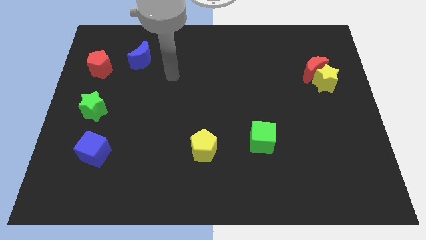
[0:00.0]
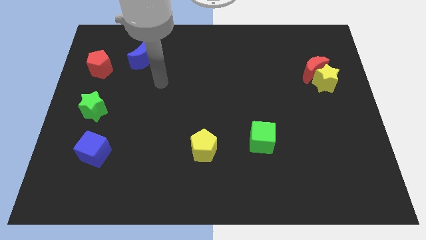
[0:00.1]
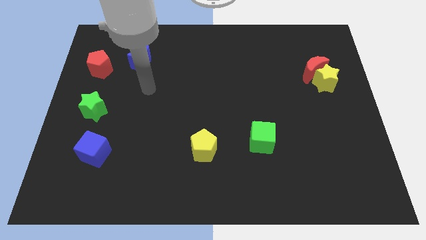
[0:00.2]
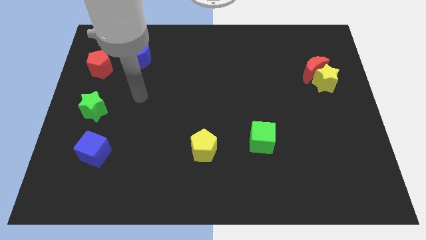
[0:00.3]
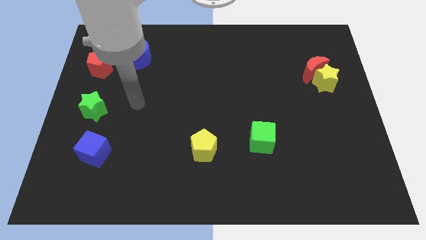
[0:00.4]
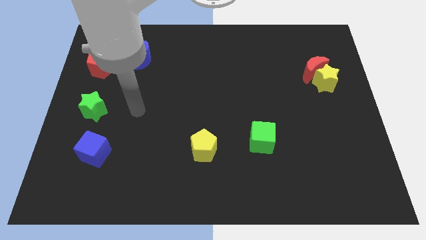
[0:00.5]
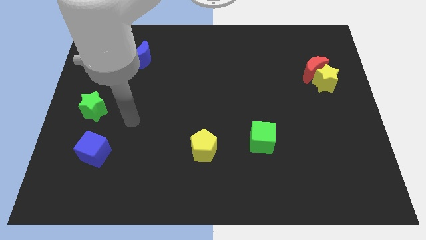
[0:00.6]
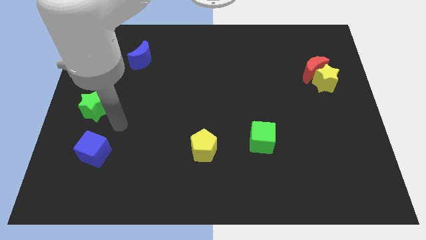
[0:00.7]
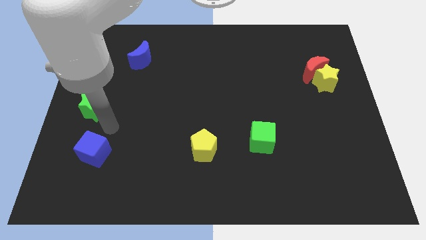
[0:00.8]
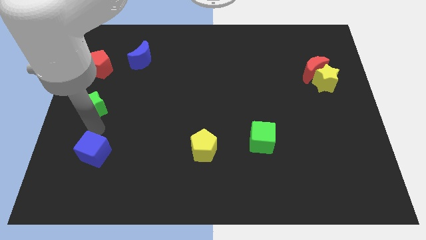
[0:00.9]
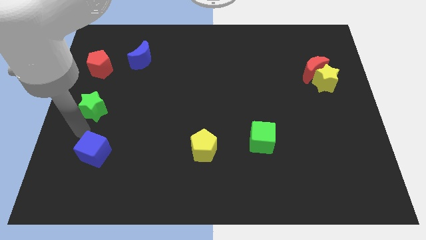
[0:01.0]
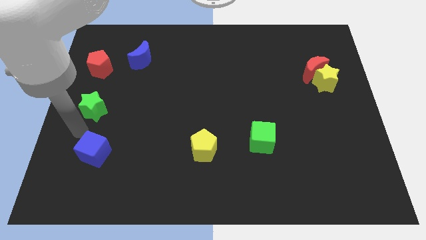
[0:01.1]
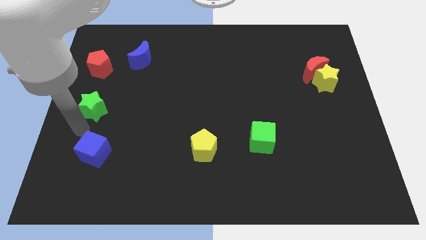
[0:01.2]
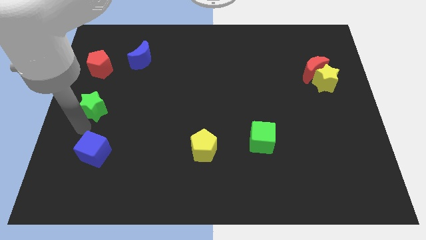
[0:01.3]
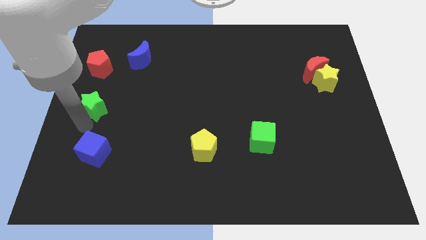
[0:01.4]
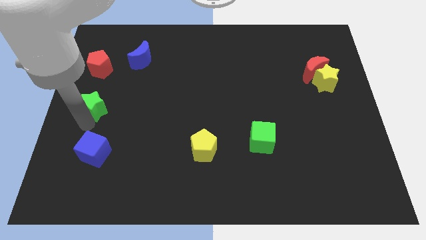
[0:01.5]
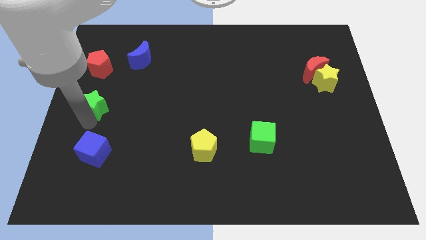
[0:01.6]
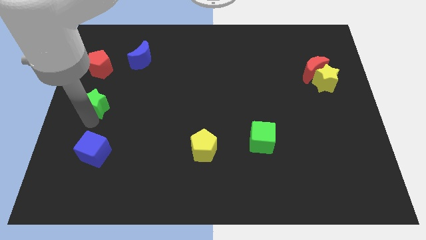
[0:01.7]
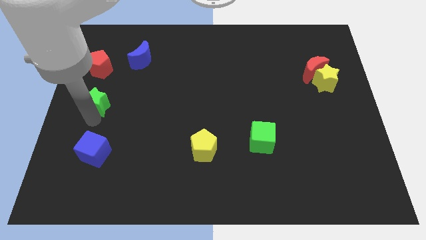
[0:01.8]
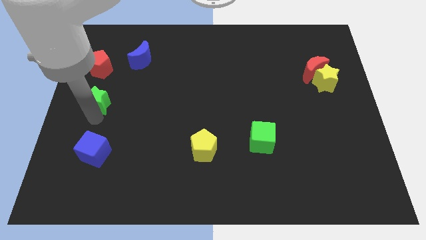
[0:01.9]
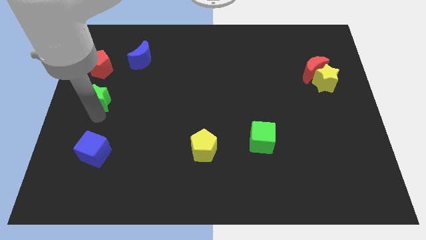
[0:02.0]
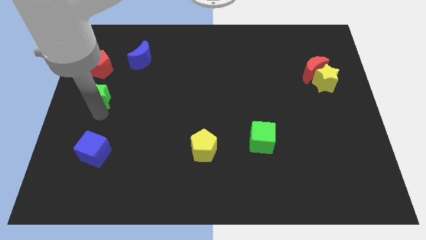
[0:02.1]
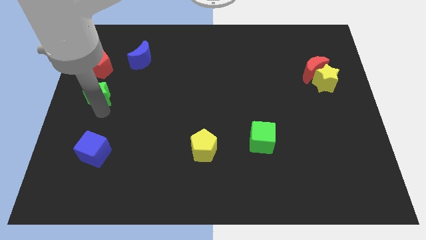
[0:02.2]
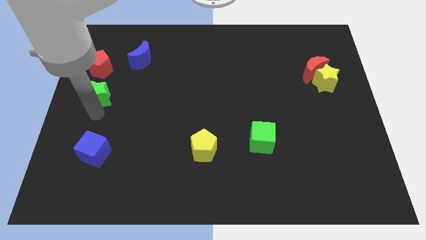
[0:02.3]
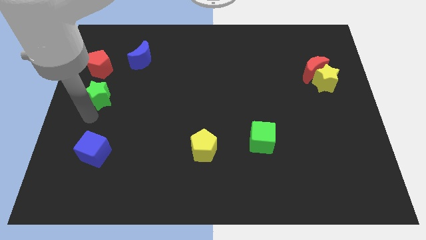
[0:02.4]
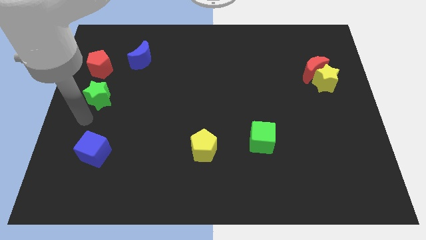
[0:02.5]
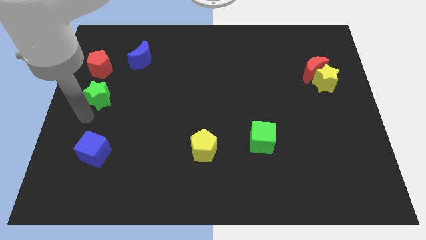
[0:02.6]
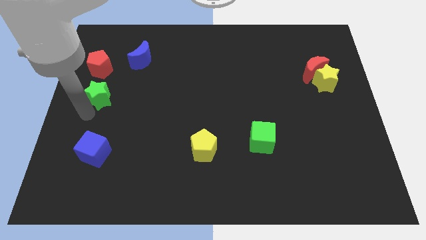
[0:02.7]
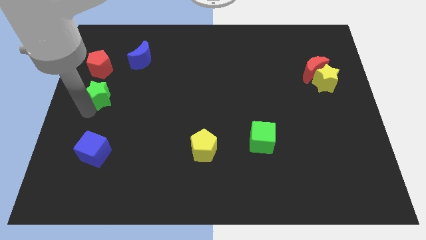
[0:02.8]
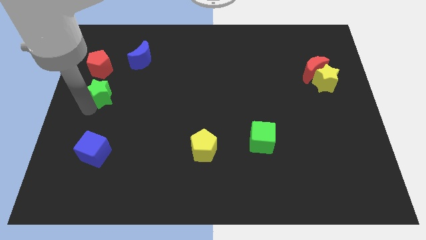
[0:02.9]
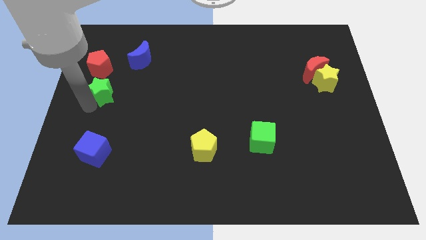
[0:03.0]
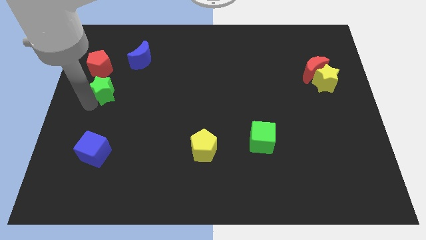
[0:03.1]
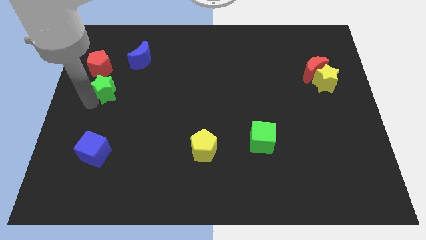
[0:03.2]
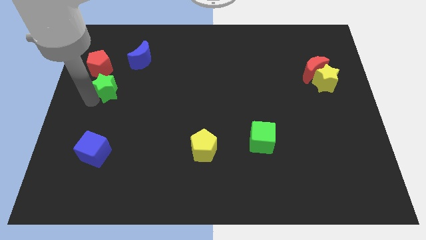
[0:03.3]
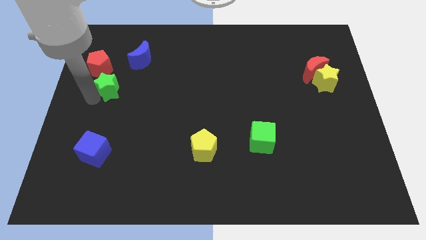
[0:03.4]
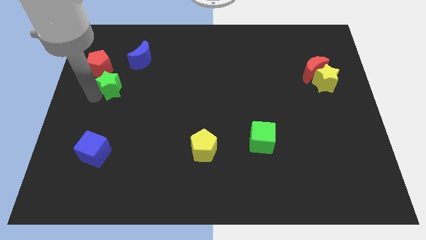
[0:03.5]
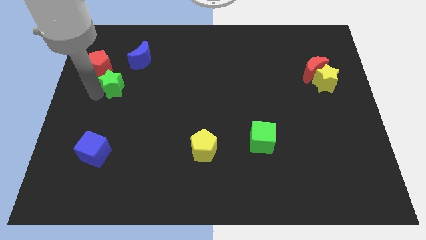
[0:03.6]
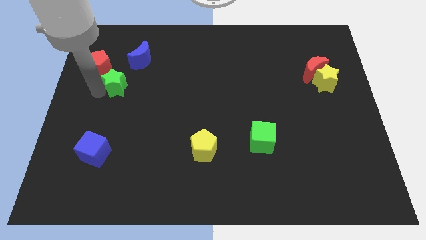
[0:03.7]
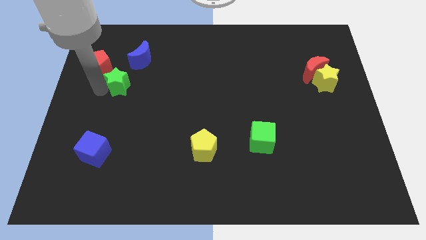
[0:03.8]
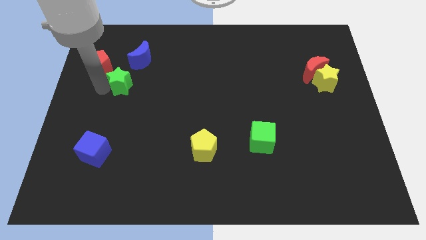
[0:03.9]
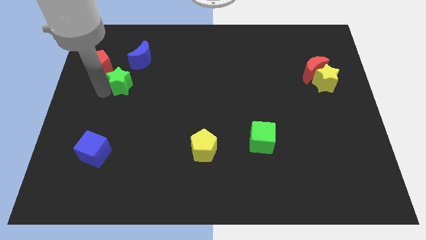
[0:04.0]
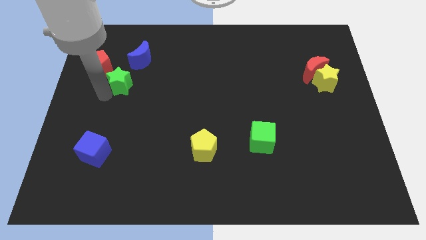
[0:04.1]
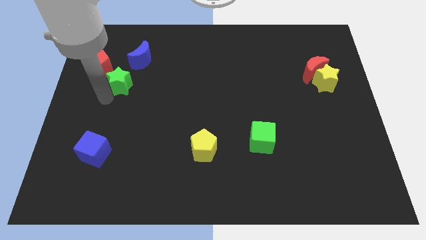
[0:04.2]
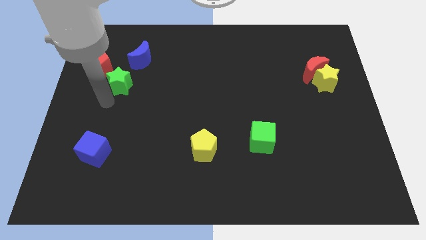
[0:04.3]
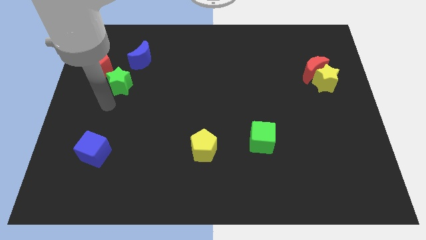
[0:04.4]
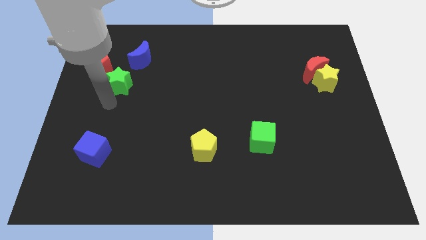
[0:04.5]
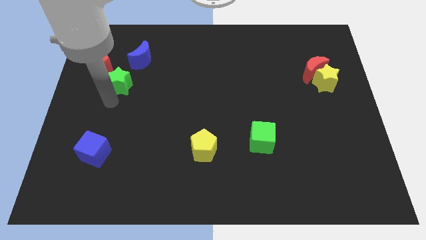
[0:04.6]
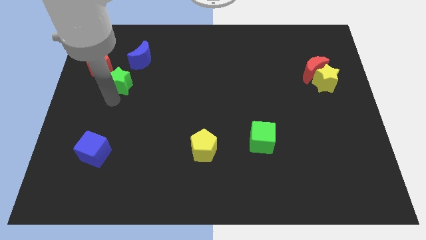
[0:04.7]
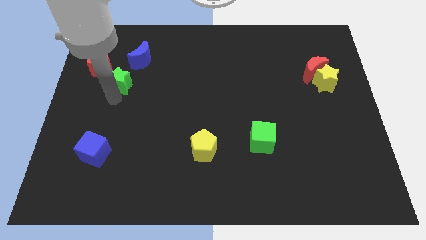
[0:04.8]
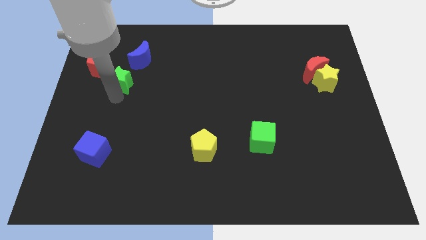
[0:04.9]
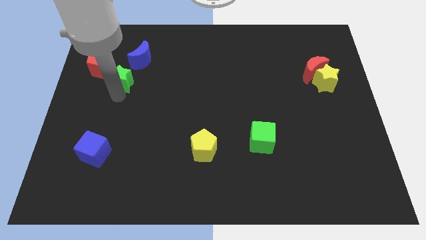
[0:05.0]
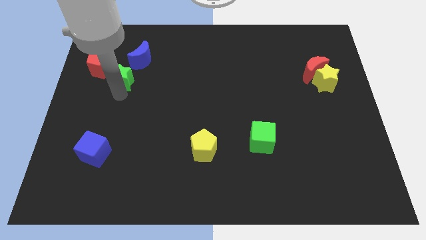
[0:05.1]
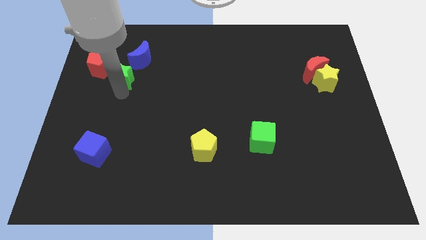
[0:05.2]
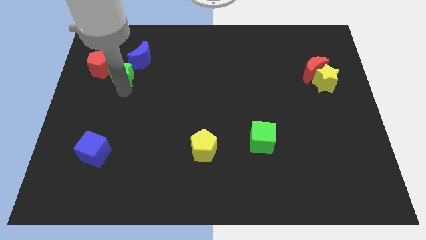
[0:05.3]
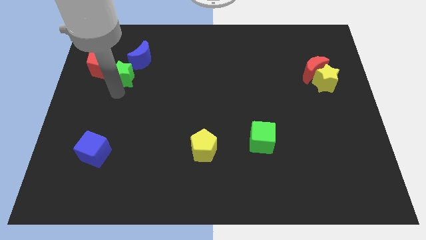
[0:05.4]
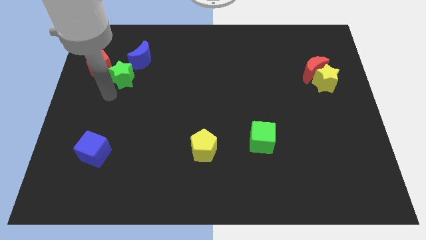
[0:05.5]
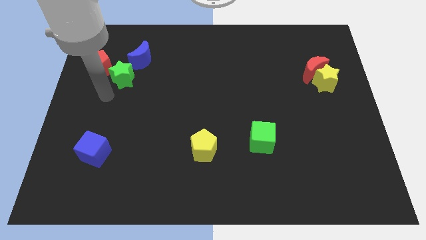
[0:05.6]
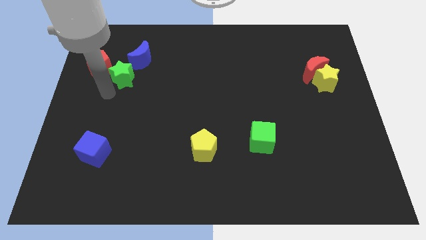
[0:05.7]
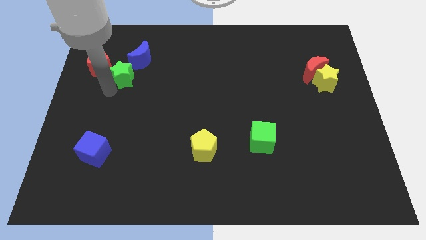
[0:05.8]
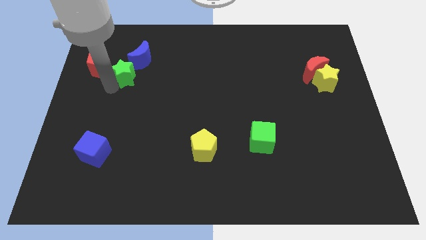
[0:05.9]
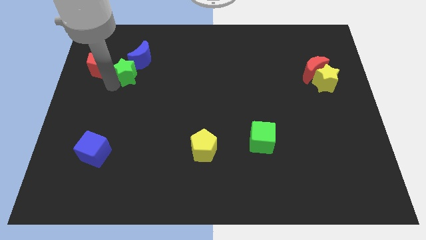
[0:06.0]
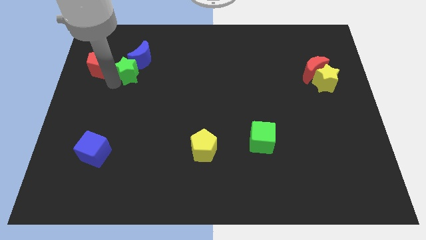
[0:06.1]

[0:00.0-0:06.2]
push the green star next to the blue moon

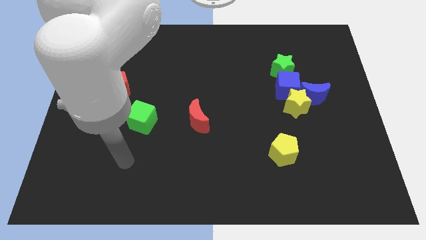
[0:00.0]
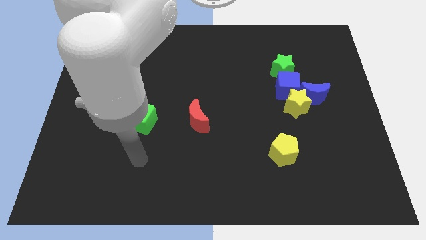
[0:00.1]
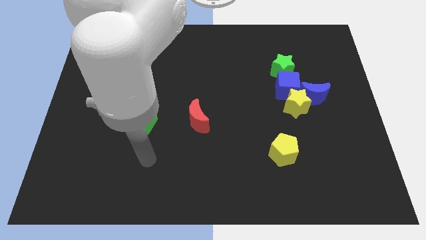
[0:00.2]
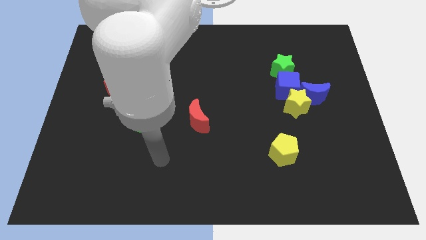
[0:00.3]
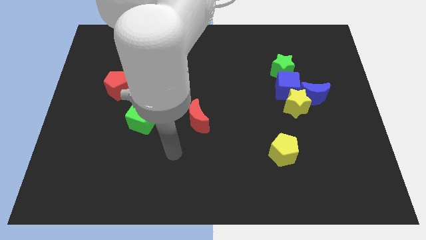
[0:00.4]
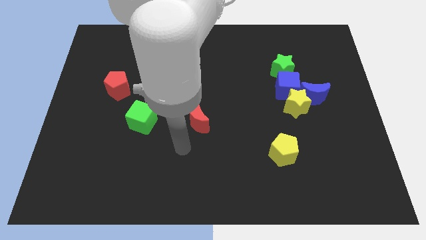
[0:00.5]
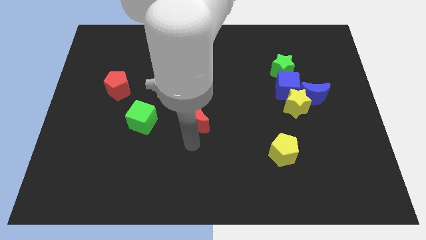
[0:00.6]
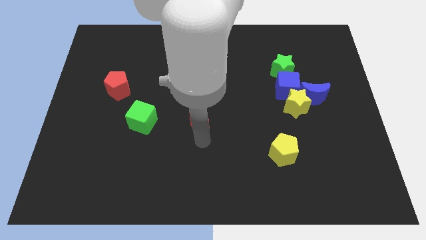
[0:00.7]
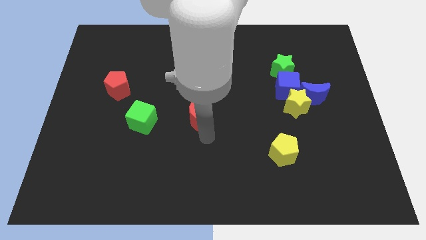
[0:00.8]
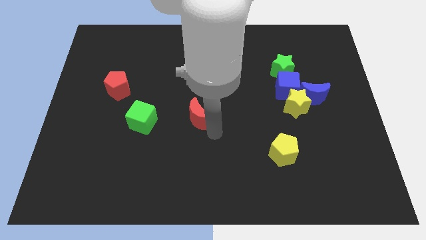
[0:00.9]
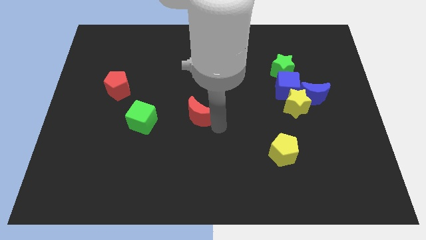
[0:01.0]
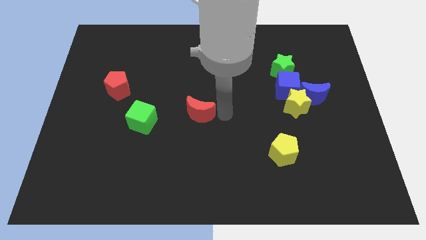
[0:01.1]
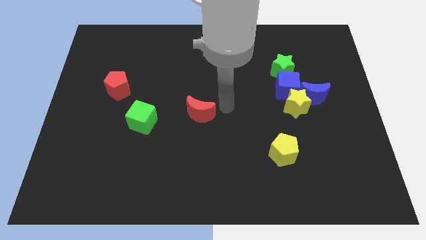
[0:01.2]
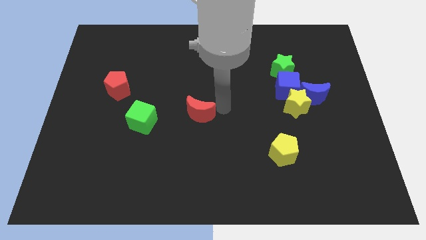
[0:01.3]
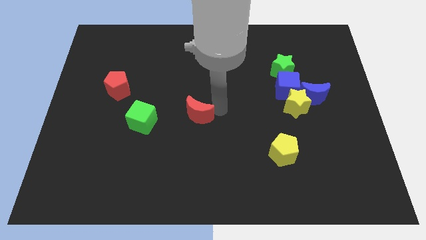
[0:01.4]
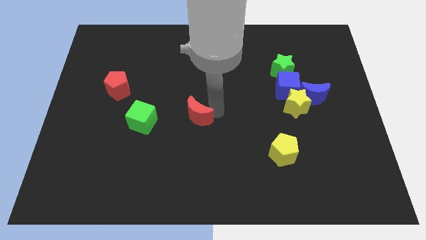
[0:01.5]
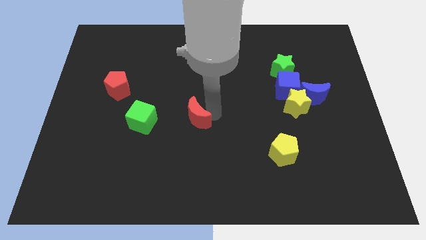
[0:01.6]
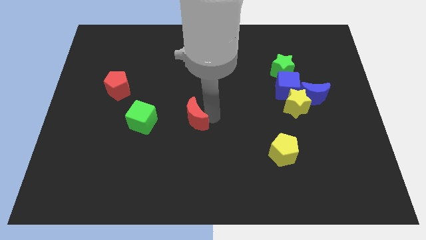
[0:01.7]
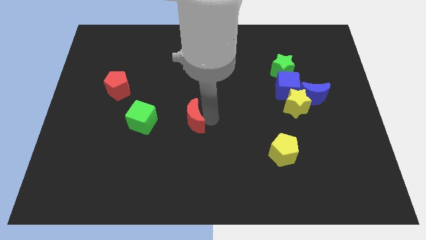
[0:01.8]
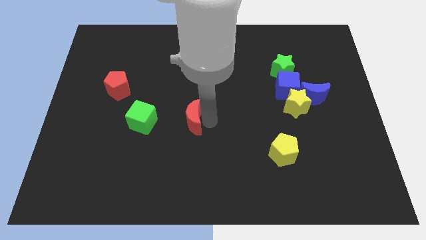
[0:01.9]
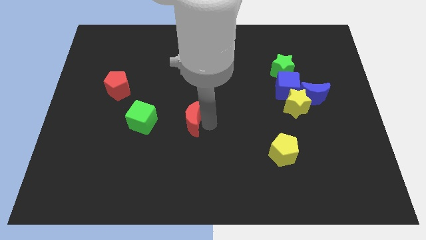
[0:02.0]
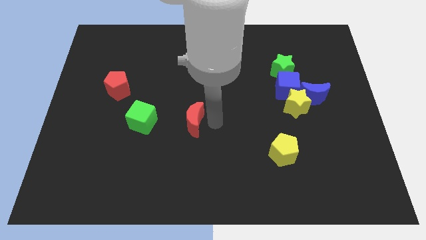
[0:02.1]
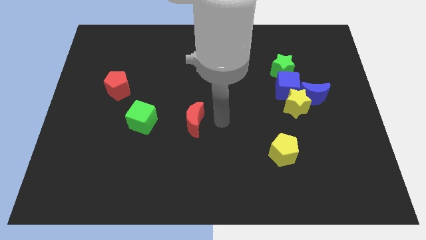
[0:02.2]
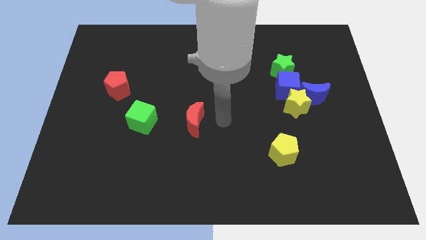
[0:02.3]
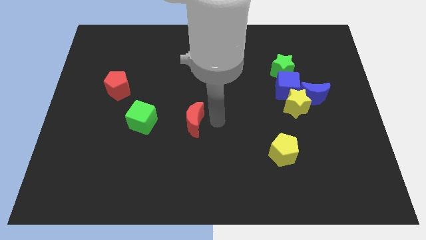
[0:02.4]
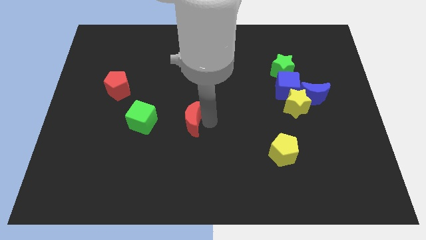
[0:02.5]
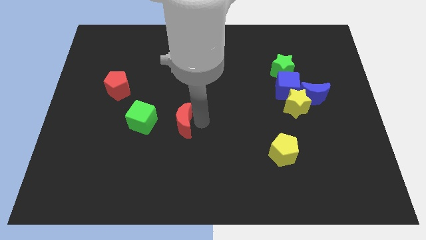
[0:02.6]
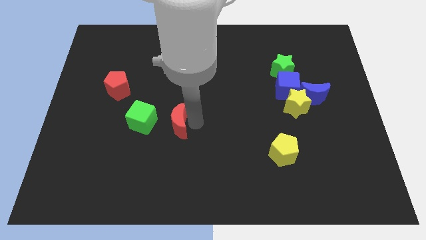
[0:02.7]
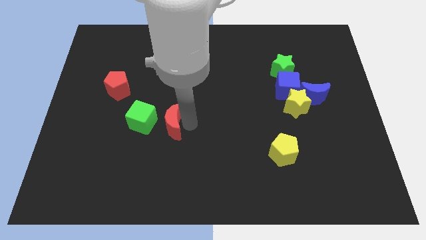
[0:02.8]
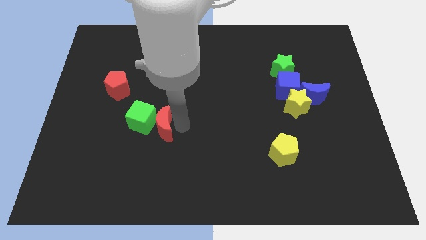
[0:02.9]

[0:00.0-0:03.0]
put the red moon close to the green cube
